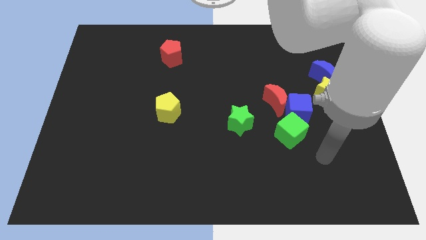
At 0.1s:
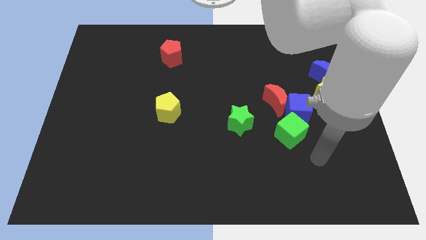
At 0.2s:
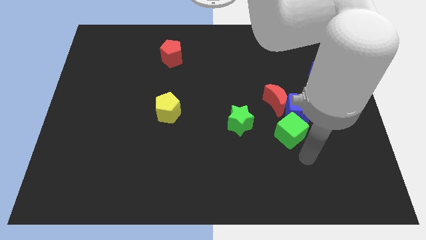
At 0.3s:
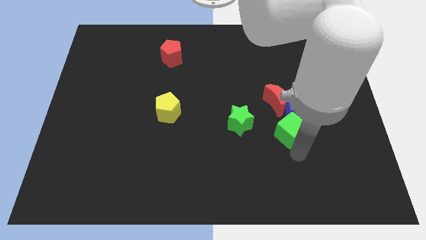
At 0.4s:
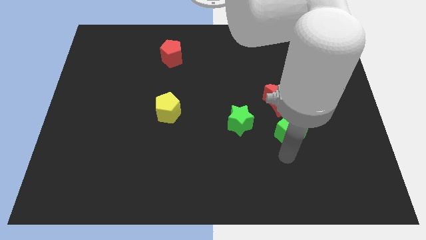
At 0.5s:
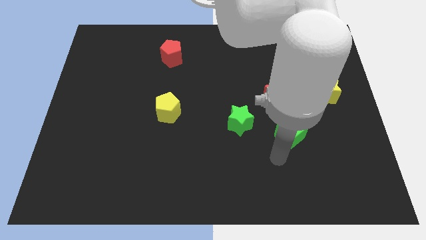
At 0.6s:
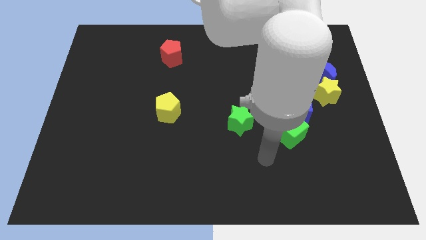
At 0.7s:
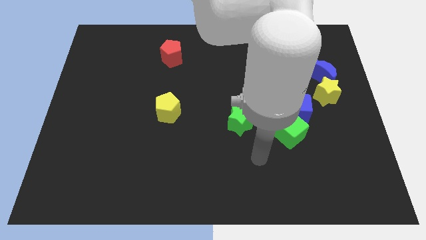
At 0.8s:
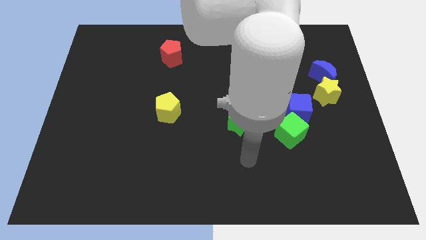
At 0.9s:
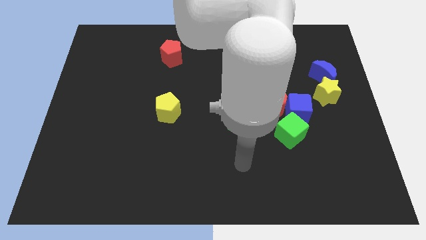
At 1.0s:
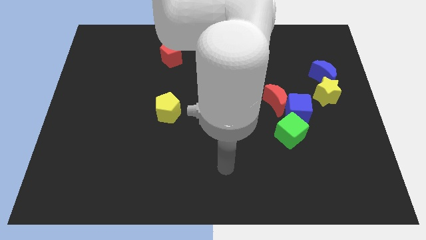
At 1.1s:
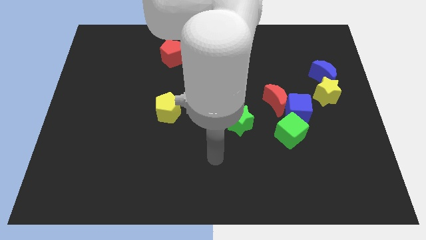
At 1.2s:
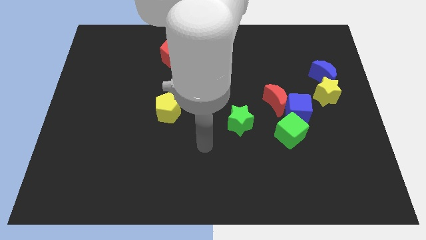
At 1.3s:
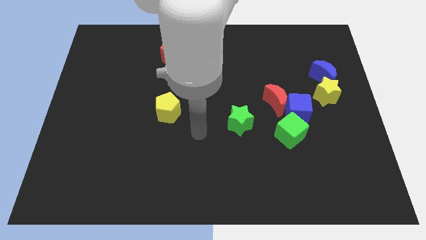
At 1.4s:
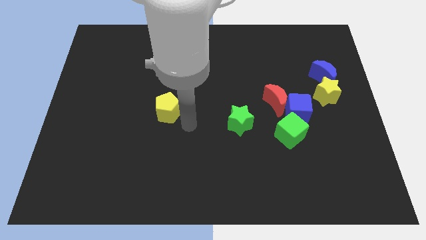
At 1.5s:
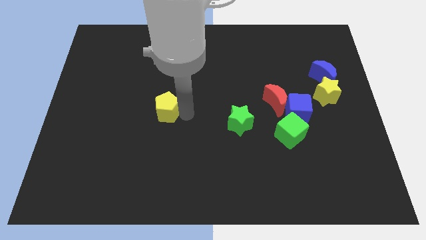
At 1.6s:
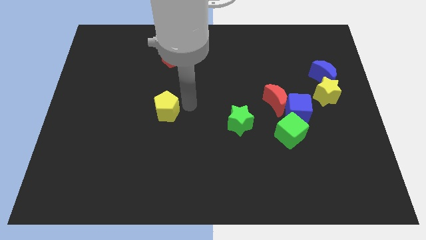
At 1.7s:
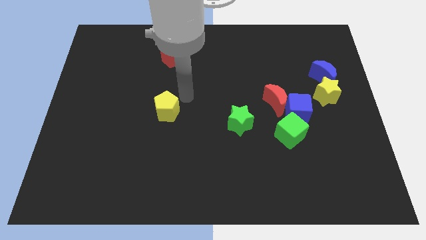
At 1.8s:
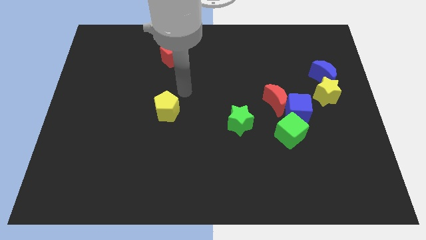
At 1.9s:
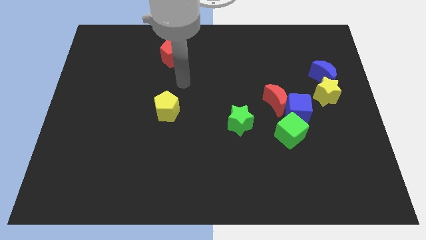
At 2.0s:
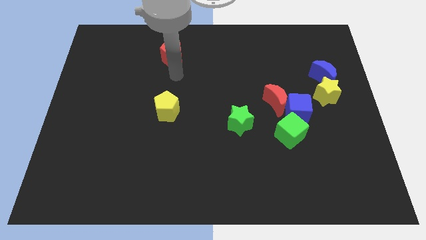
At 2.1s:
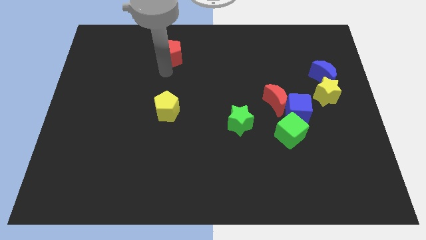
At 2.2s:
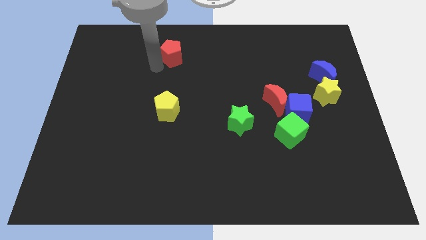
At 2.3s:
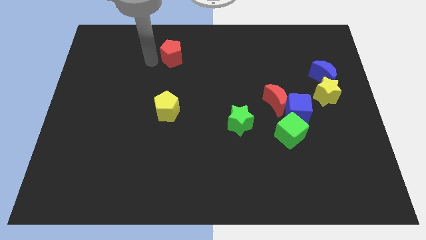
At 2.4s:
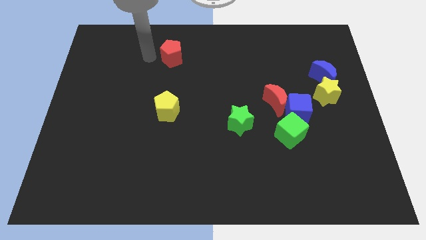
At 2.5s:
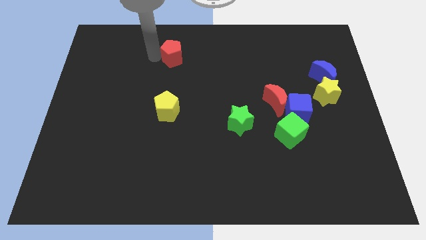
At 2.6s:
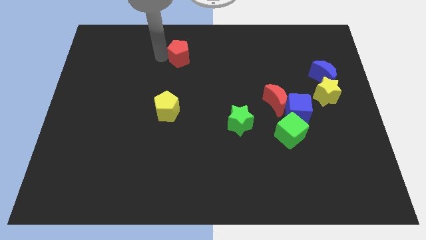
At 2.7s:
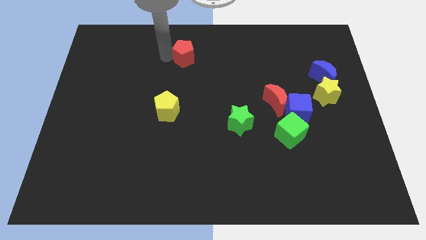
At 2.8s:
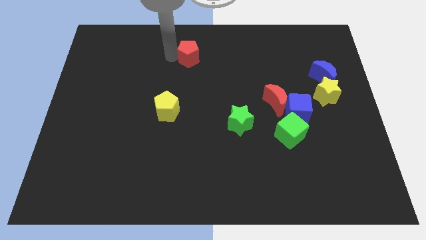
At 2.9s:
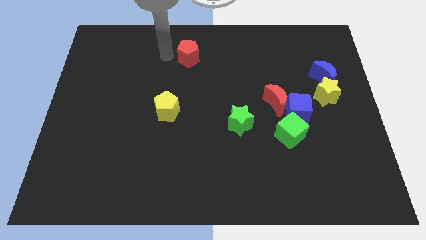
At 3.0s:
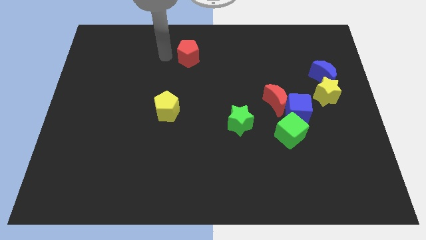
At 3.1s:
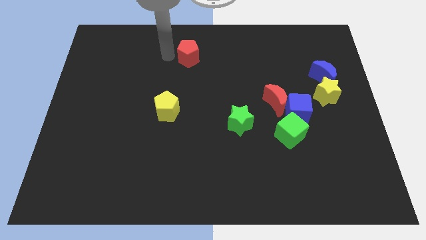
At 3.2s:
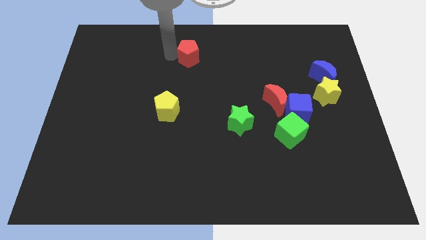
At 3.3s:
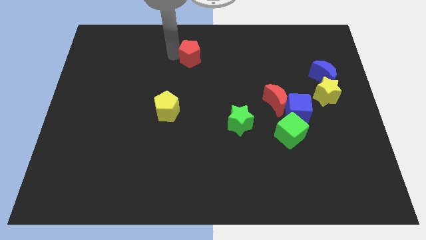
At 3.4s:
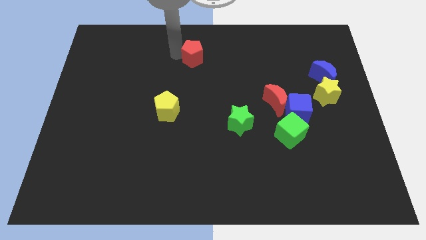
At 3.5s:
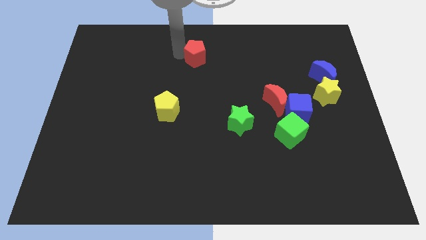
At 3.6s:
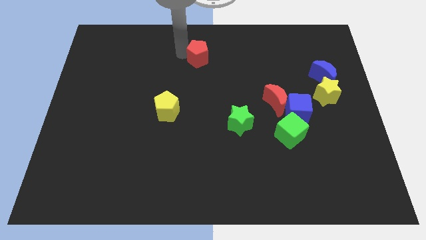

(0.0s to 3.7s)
slide the red pentagon to the right a little

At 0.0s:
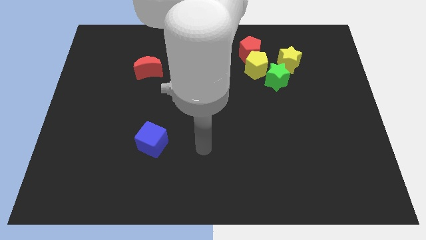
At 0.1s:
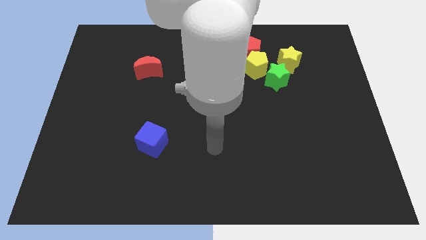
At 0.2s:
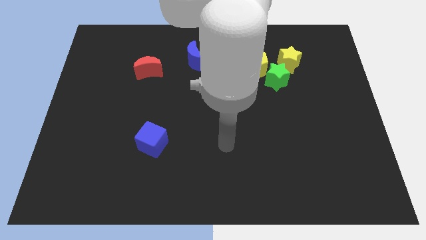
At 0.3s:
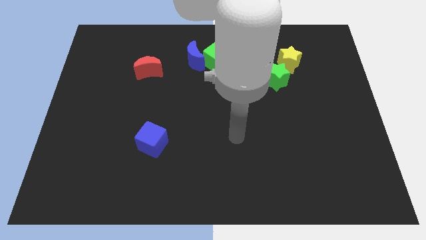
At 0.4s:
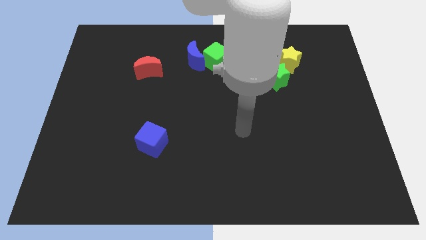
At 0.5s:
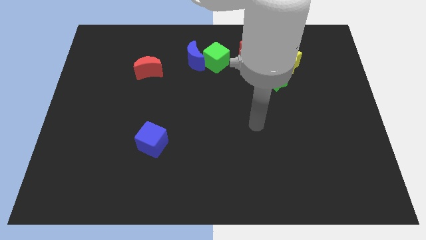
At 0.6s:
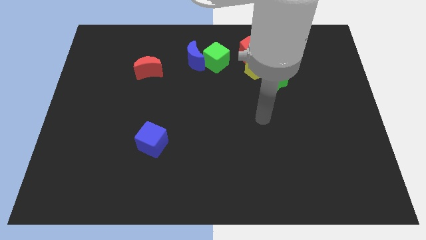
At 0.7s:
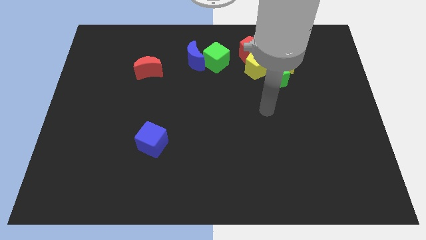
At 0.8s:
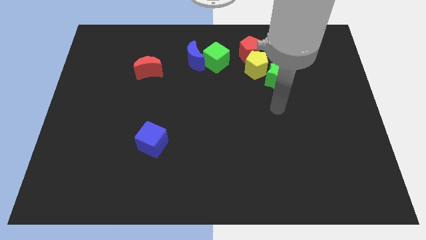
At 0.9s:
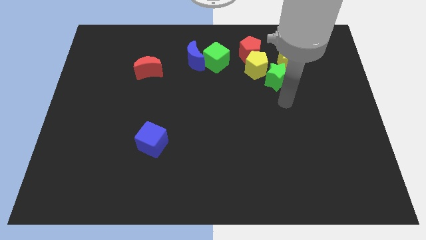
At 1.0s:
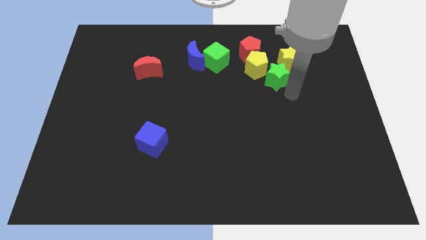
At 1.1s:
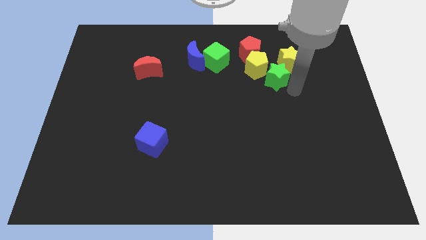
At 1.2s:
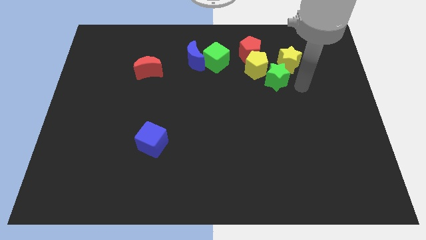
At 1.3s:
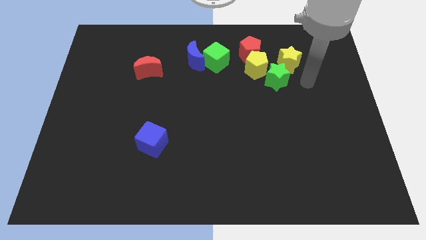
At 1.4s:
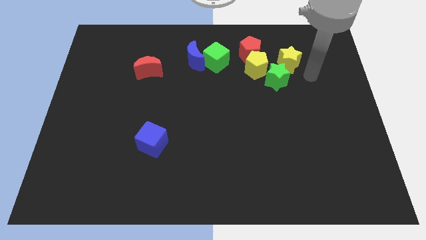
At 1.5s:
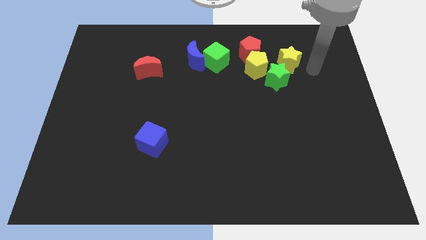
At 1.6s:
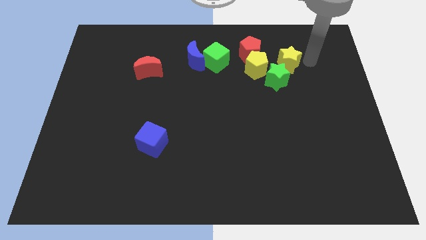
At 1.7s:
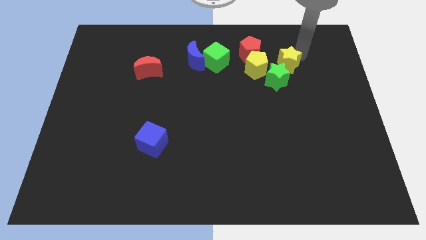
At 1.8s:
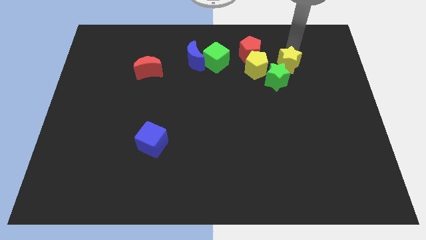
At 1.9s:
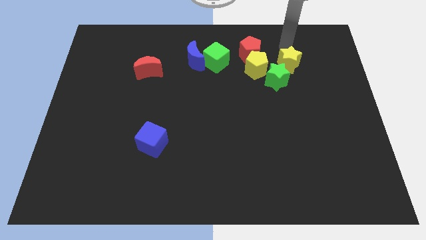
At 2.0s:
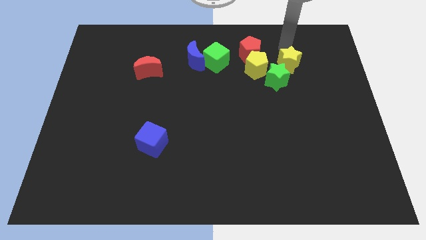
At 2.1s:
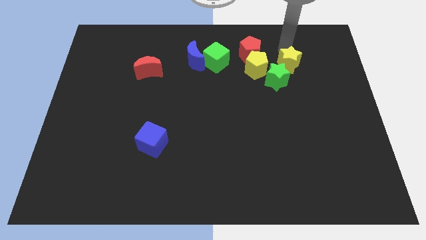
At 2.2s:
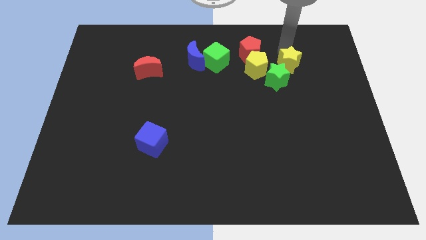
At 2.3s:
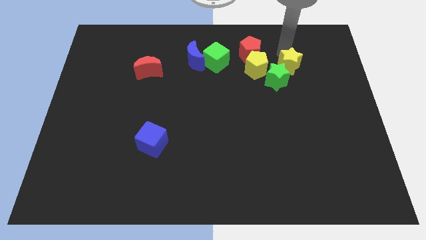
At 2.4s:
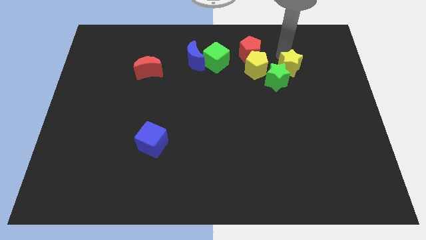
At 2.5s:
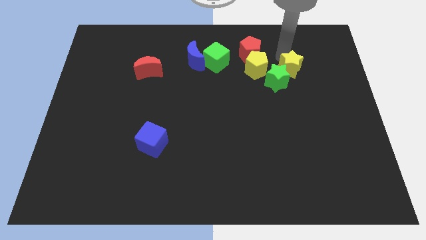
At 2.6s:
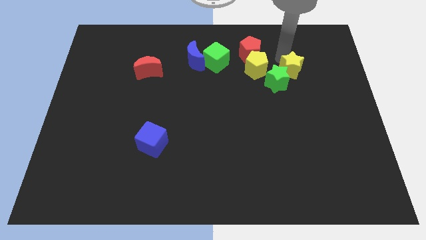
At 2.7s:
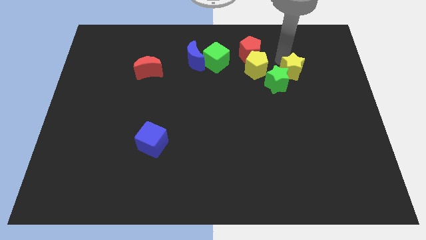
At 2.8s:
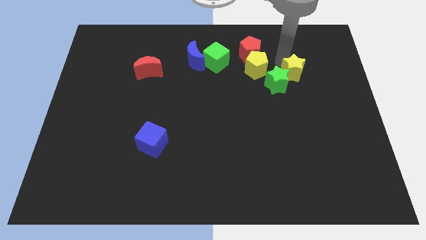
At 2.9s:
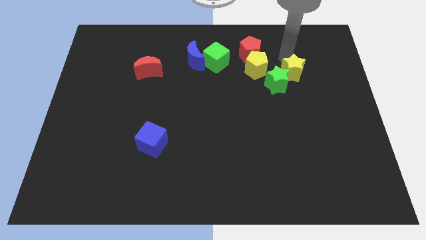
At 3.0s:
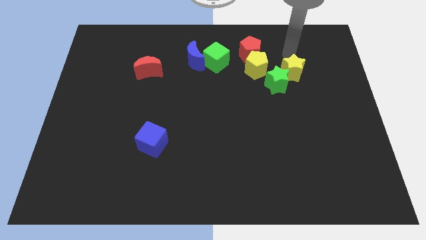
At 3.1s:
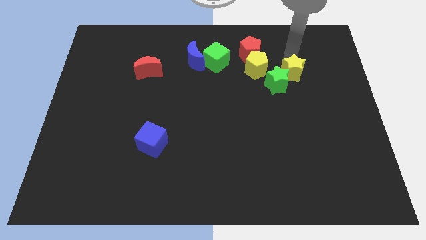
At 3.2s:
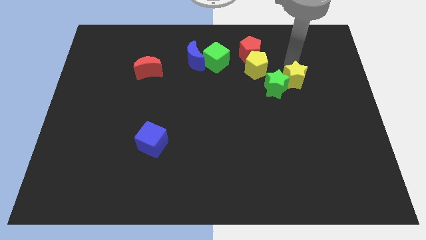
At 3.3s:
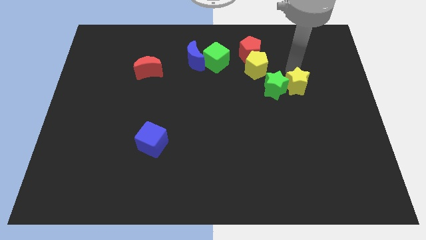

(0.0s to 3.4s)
push the yellow star somewhat downwards

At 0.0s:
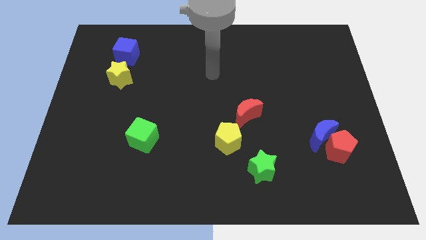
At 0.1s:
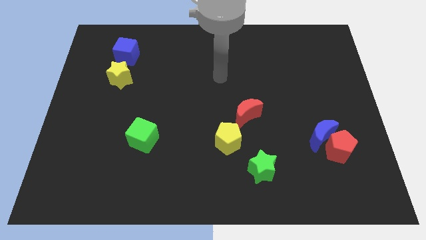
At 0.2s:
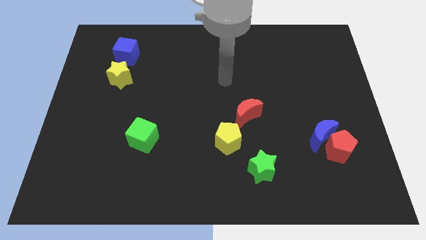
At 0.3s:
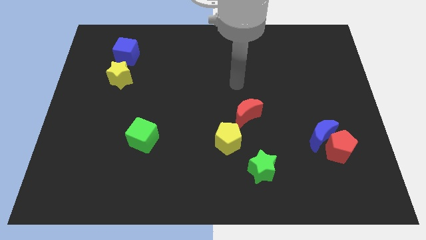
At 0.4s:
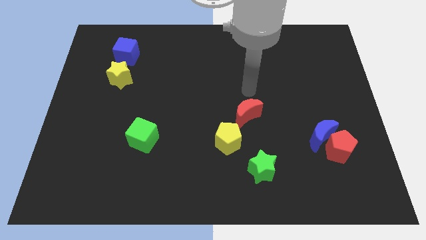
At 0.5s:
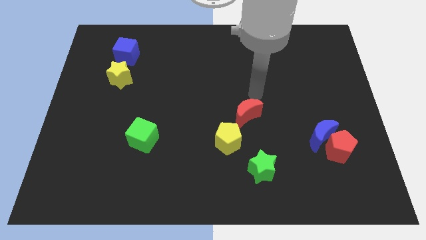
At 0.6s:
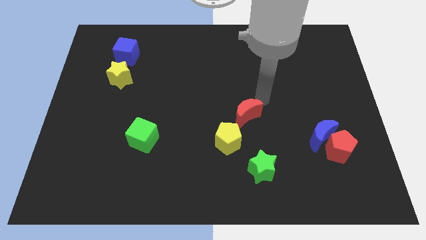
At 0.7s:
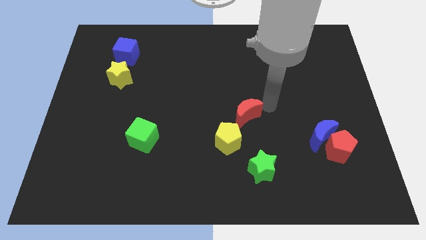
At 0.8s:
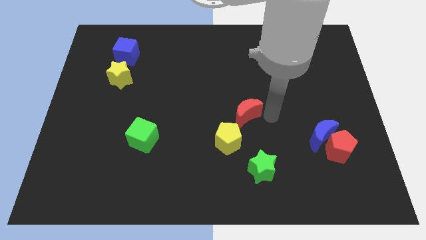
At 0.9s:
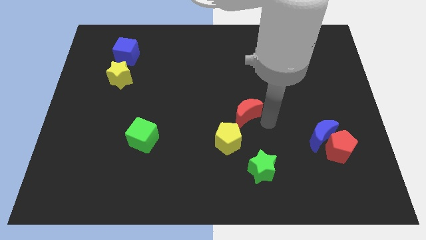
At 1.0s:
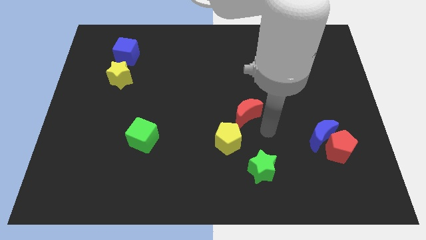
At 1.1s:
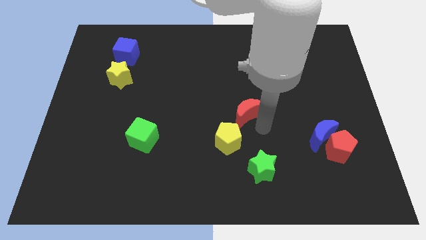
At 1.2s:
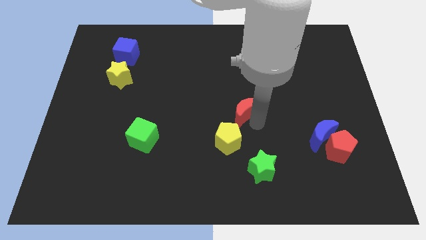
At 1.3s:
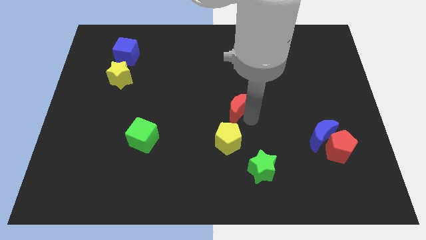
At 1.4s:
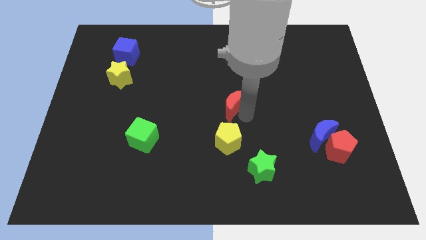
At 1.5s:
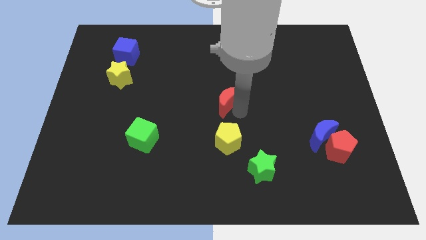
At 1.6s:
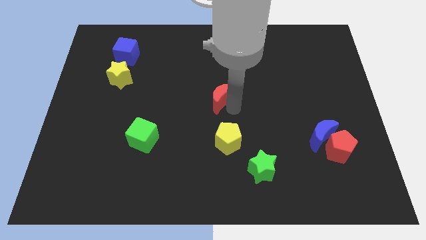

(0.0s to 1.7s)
slightly move the red moon up and to the left diagonally

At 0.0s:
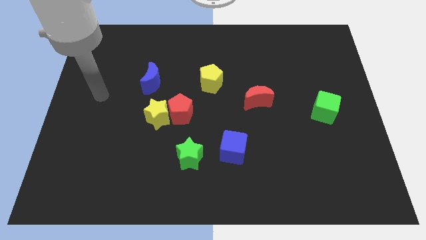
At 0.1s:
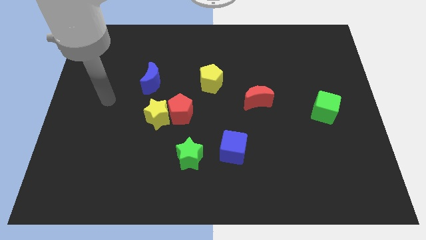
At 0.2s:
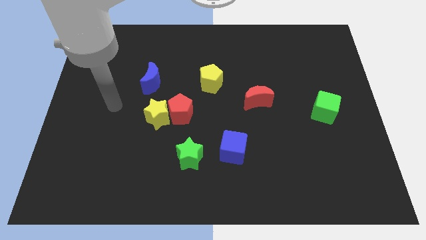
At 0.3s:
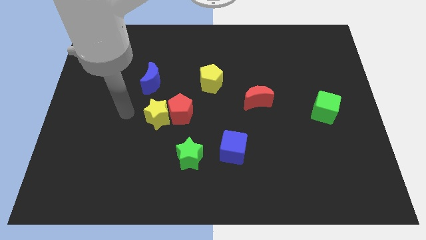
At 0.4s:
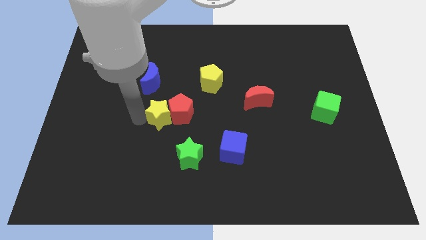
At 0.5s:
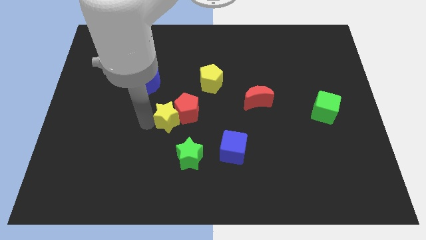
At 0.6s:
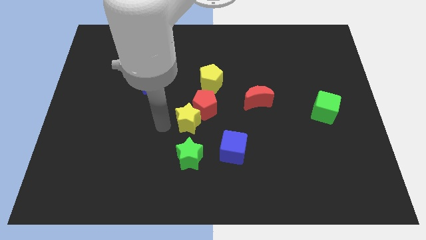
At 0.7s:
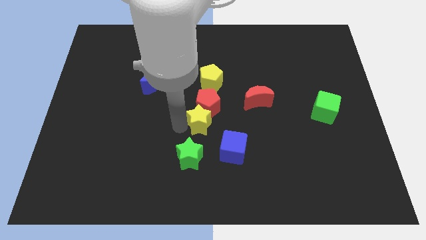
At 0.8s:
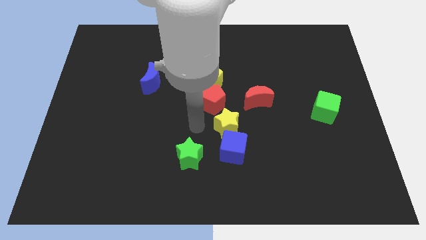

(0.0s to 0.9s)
push the red pentagon a little bit up and to the right
